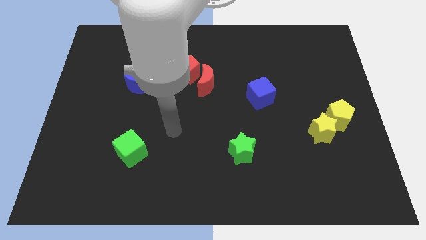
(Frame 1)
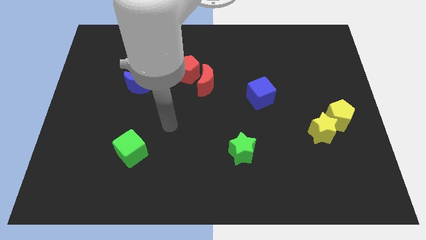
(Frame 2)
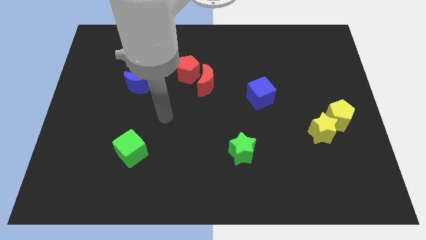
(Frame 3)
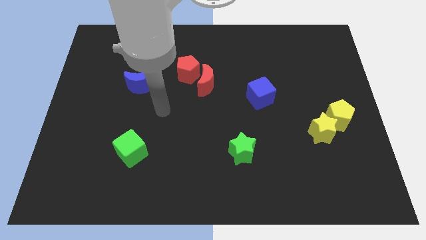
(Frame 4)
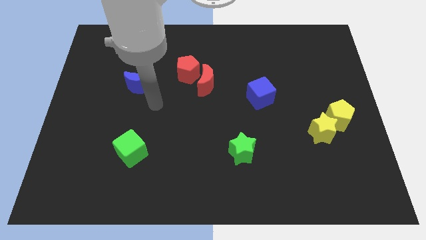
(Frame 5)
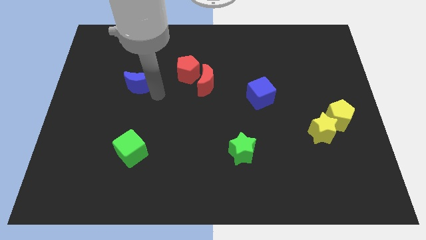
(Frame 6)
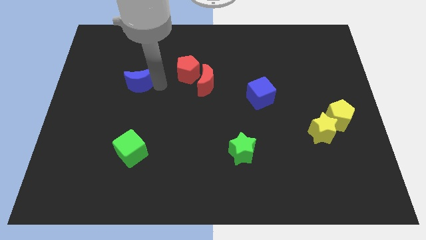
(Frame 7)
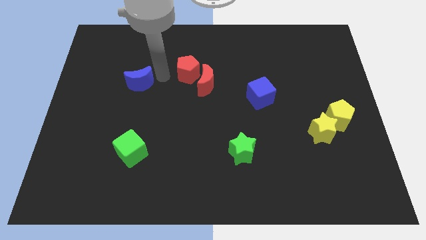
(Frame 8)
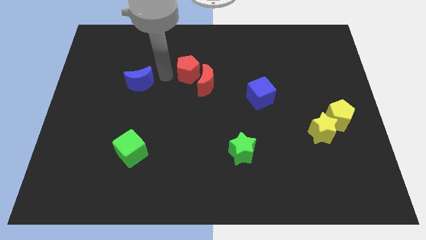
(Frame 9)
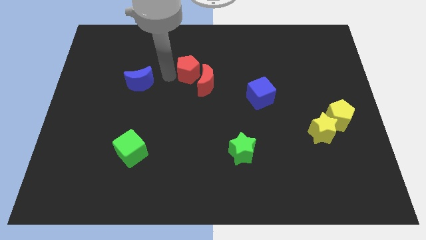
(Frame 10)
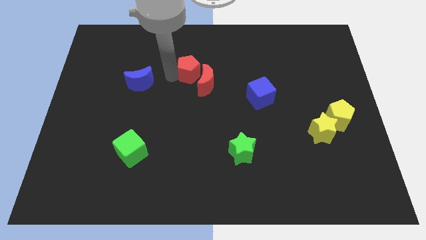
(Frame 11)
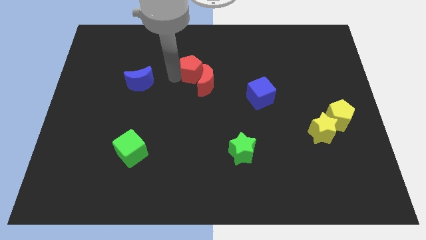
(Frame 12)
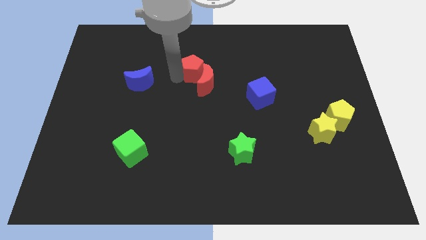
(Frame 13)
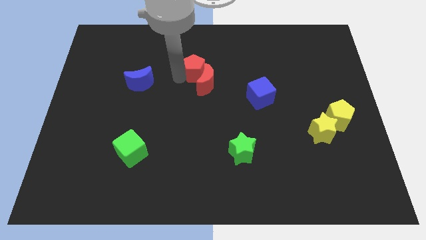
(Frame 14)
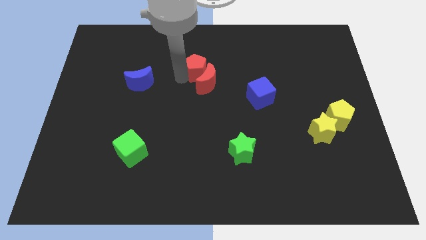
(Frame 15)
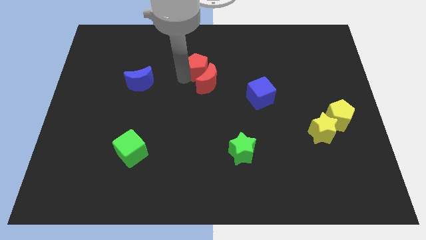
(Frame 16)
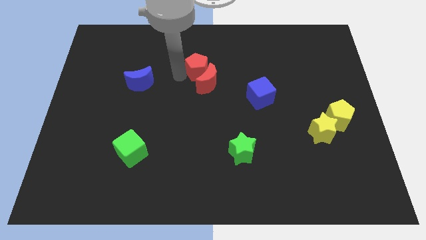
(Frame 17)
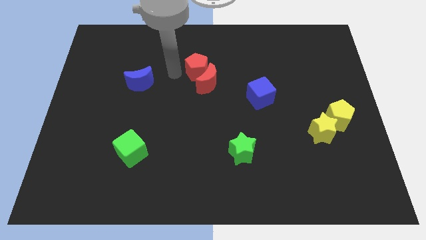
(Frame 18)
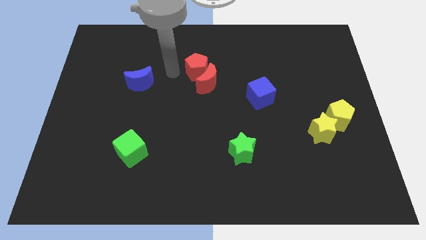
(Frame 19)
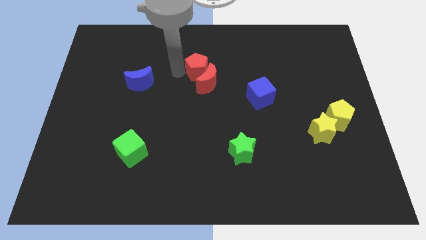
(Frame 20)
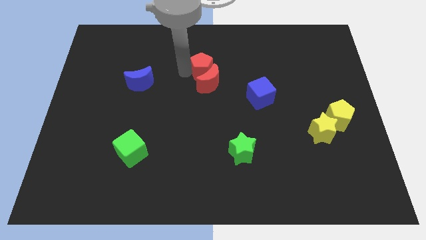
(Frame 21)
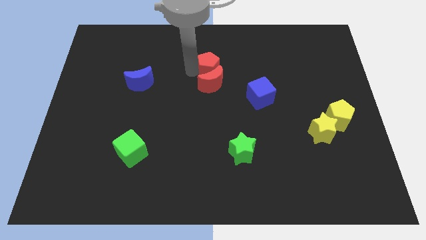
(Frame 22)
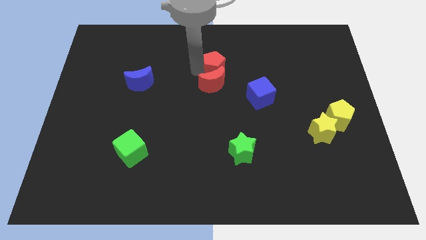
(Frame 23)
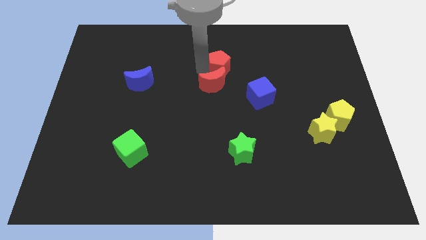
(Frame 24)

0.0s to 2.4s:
push the red pentagon right somewhat

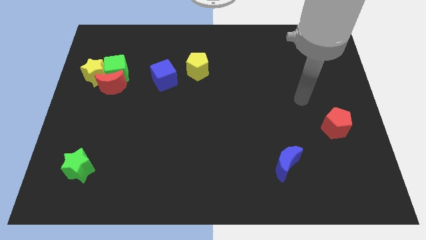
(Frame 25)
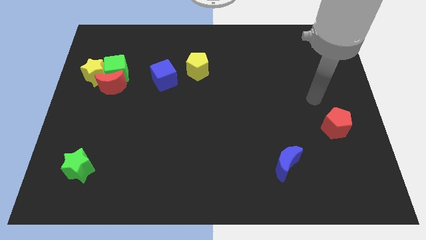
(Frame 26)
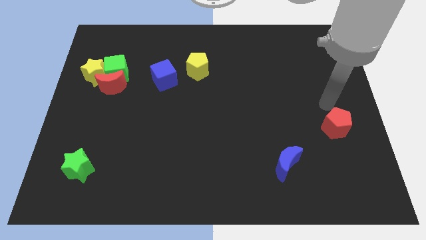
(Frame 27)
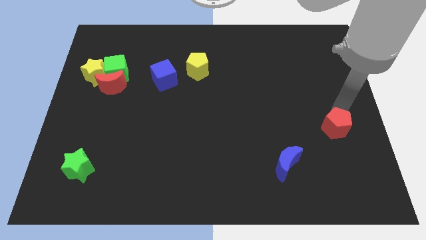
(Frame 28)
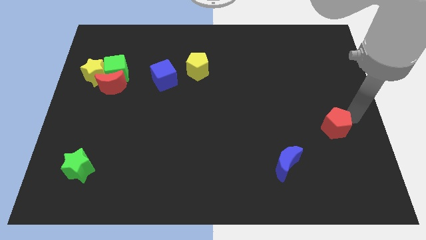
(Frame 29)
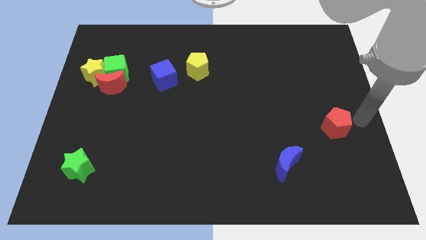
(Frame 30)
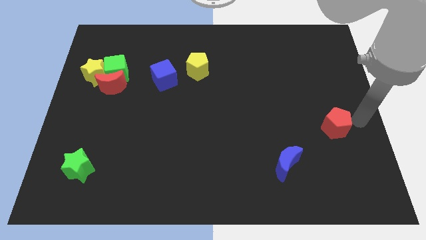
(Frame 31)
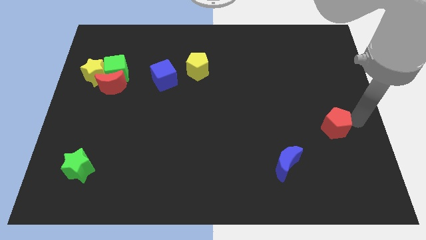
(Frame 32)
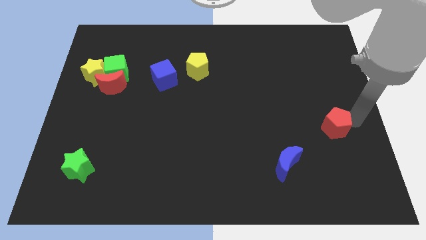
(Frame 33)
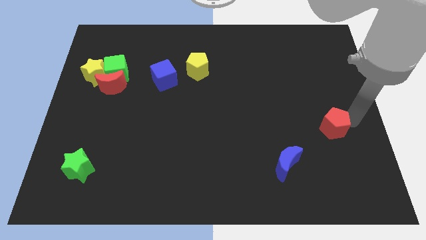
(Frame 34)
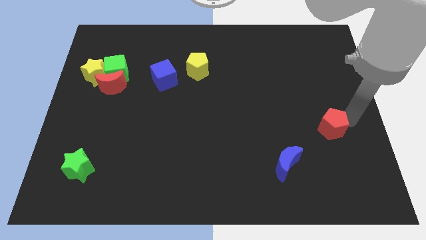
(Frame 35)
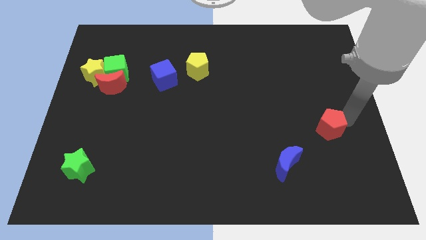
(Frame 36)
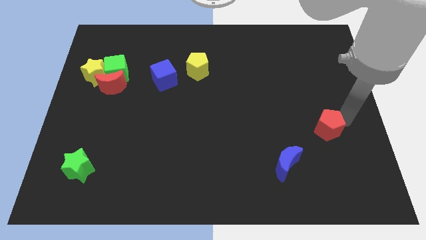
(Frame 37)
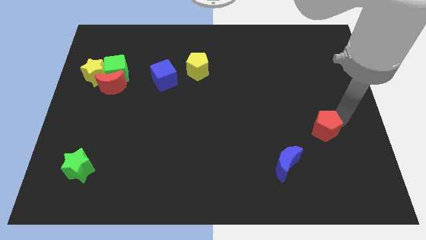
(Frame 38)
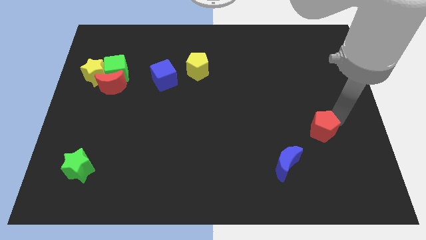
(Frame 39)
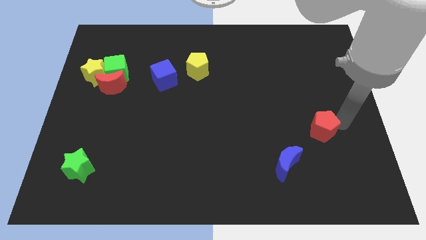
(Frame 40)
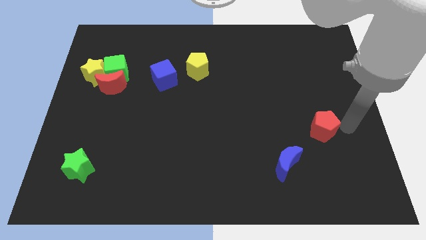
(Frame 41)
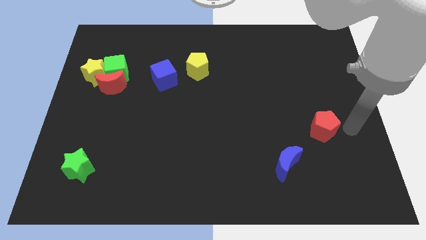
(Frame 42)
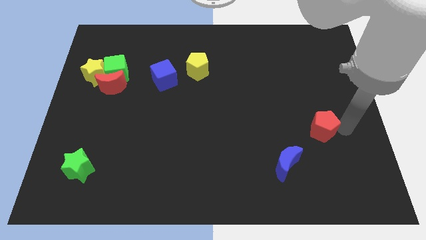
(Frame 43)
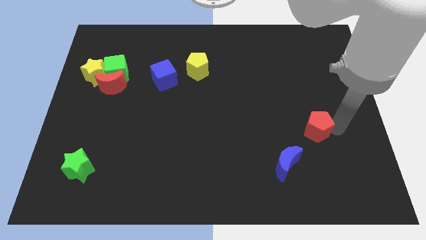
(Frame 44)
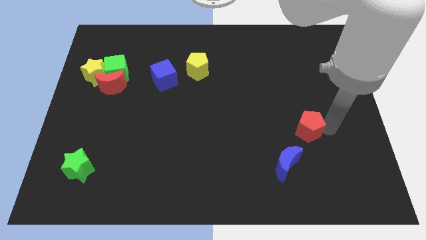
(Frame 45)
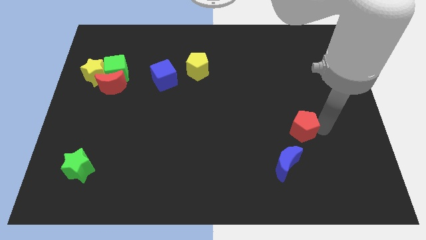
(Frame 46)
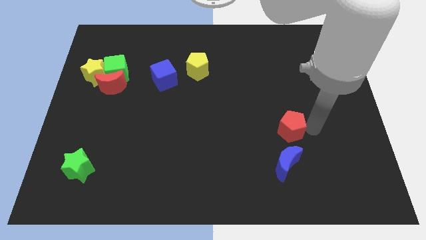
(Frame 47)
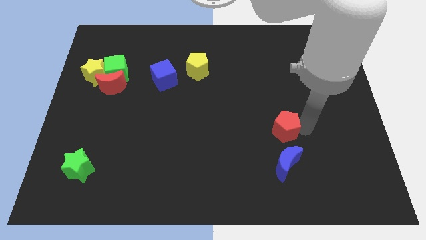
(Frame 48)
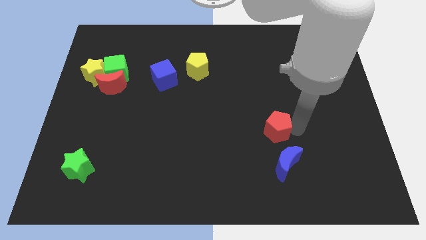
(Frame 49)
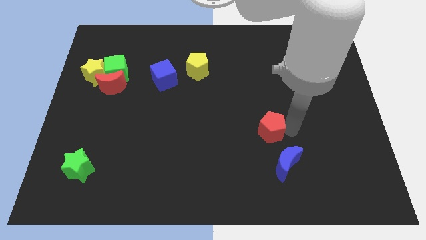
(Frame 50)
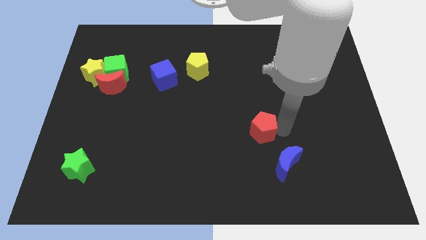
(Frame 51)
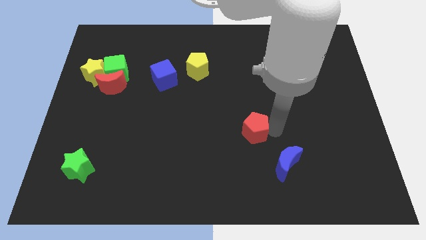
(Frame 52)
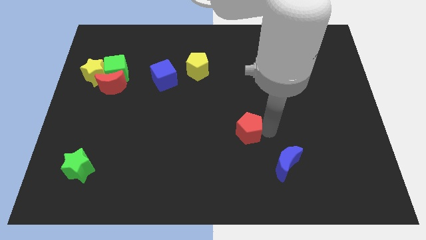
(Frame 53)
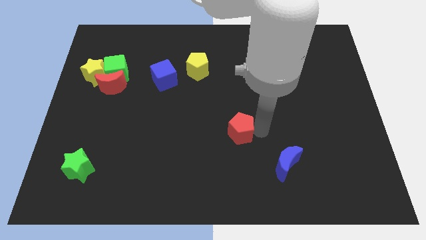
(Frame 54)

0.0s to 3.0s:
slide the red pentagon left

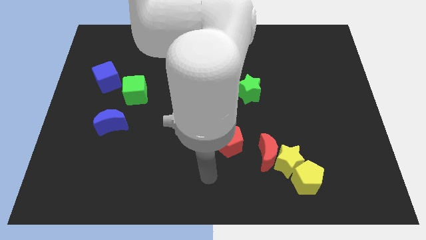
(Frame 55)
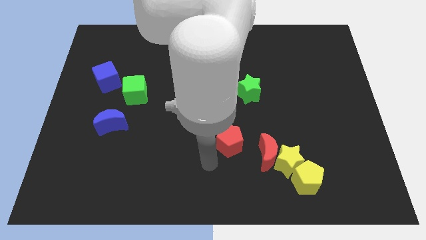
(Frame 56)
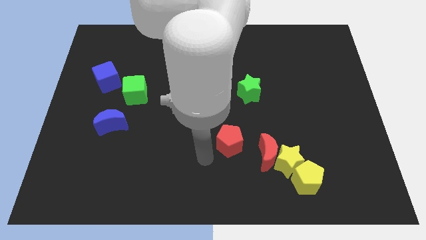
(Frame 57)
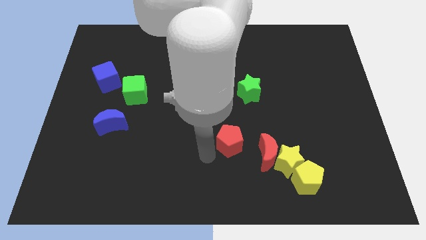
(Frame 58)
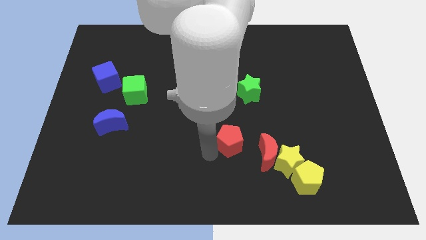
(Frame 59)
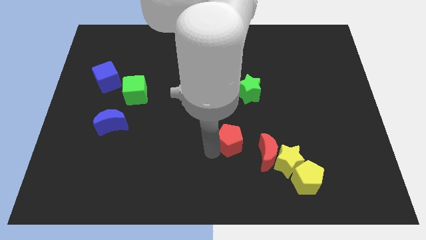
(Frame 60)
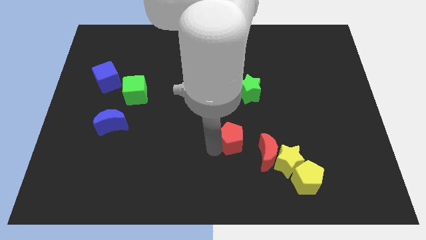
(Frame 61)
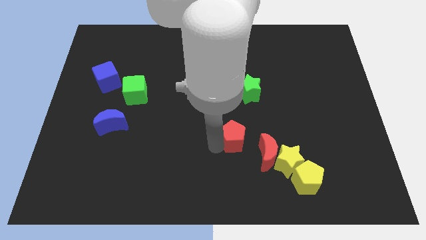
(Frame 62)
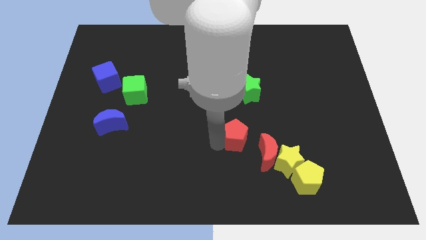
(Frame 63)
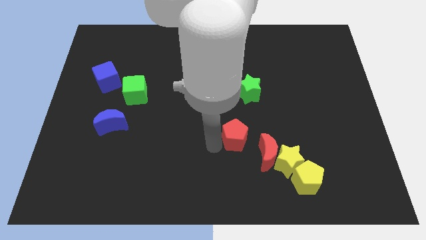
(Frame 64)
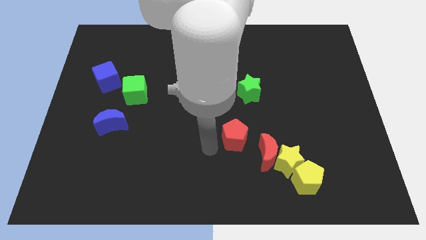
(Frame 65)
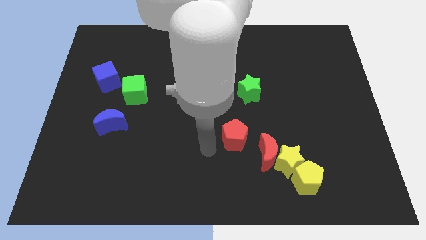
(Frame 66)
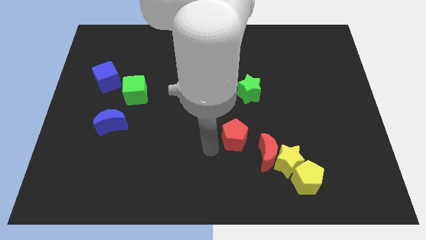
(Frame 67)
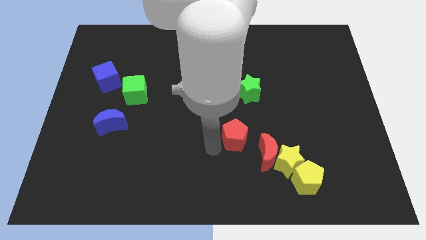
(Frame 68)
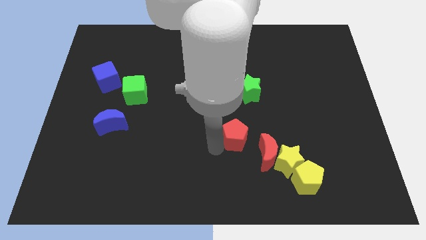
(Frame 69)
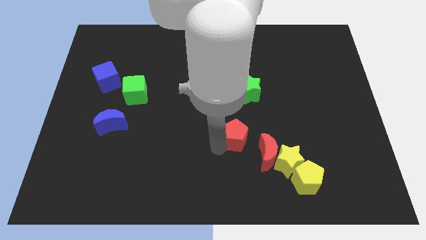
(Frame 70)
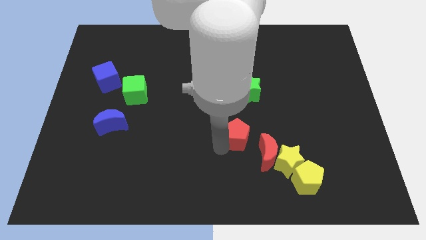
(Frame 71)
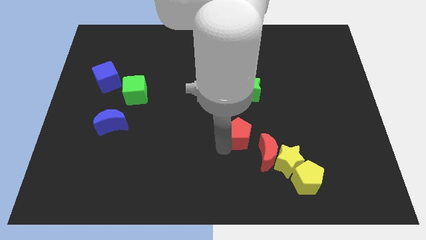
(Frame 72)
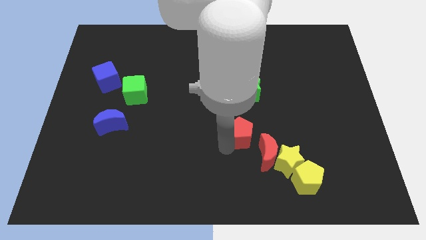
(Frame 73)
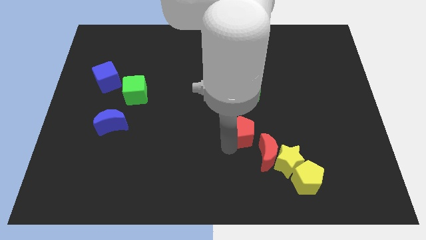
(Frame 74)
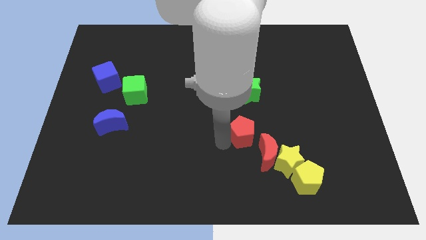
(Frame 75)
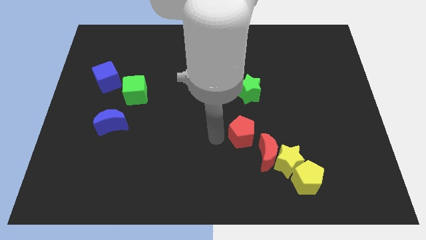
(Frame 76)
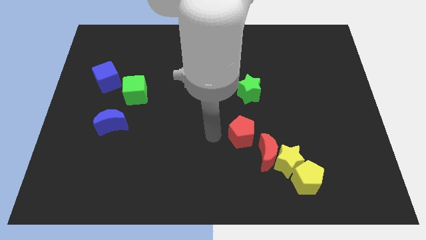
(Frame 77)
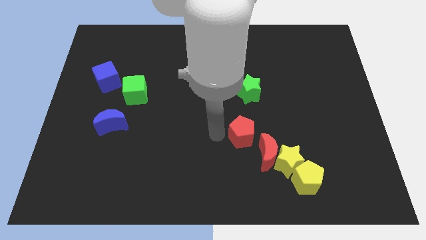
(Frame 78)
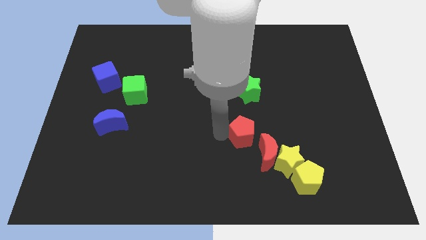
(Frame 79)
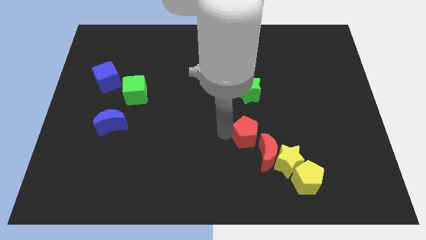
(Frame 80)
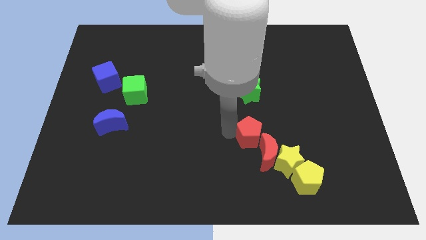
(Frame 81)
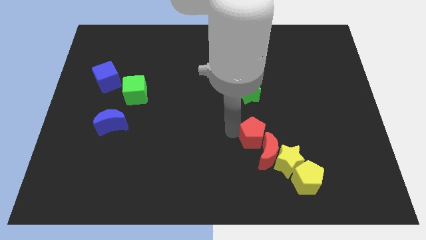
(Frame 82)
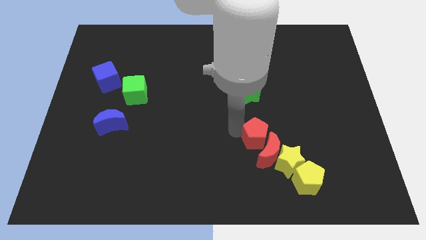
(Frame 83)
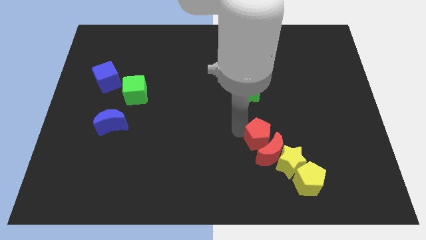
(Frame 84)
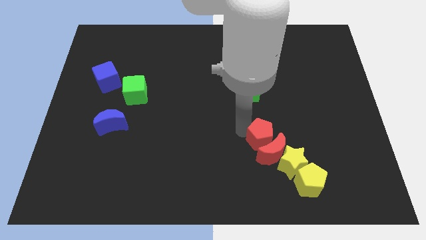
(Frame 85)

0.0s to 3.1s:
slide the red pentagon a little bit to the right
